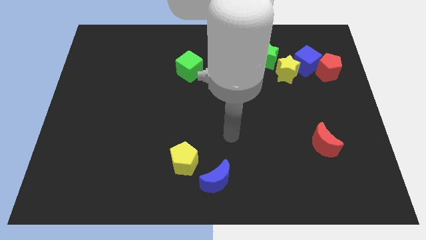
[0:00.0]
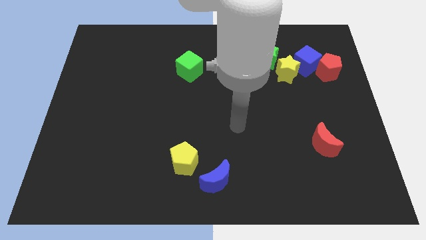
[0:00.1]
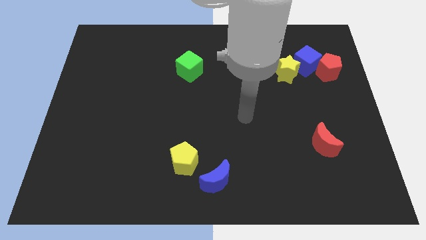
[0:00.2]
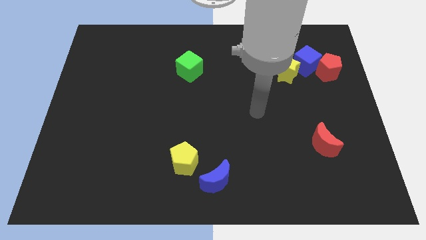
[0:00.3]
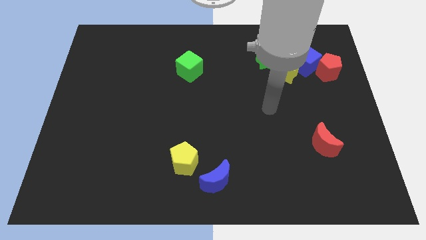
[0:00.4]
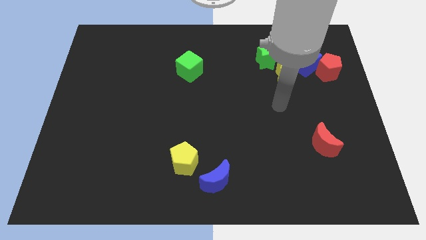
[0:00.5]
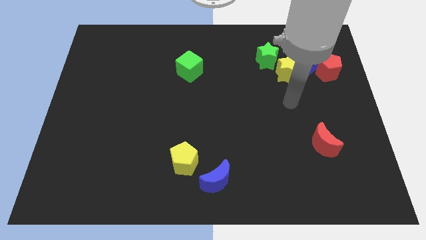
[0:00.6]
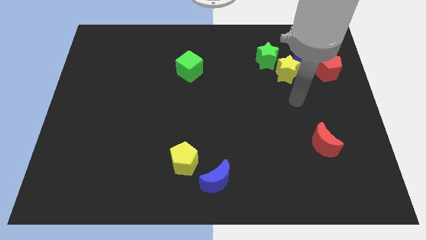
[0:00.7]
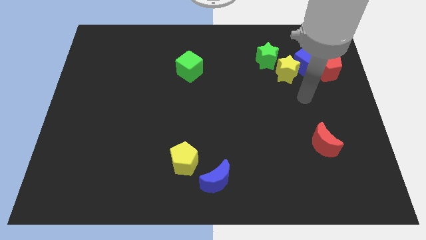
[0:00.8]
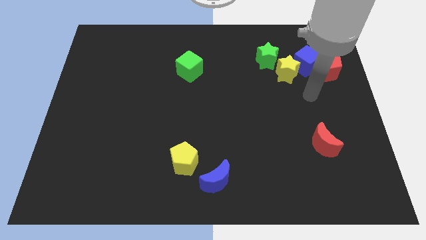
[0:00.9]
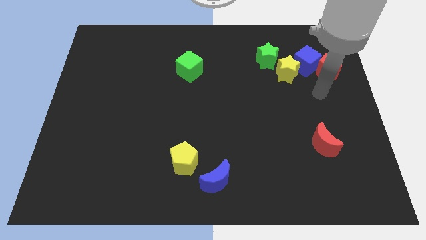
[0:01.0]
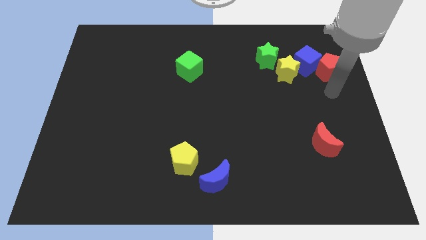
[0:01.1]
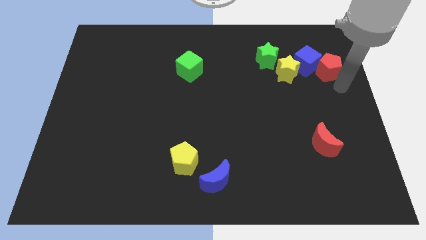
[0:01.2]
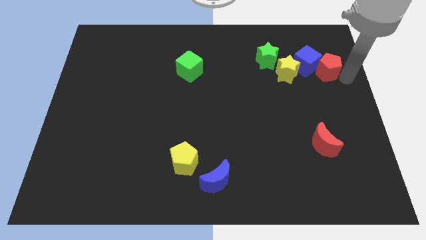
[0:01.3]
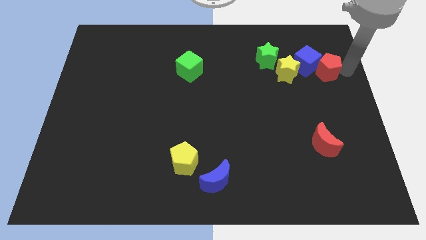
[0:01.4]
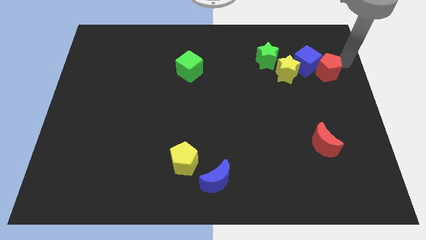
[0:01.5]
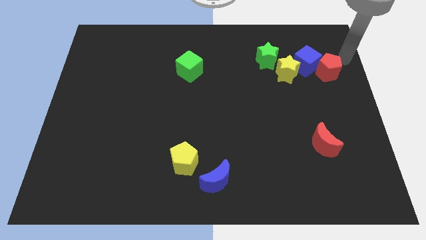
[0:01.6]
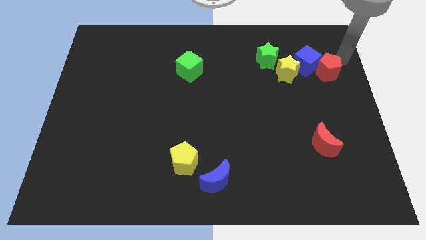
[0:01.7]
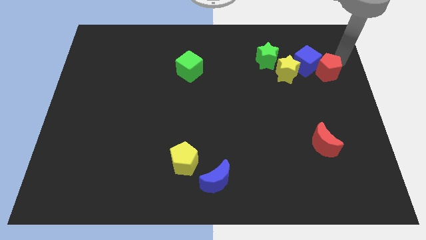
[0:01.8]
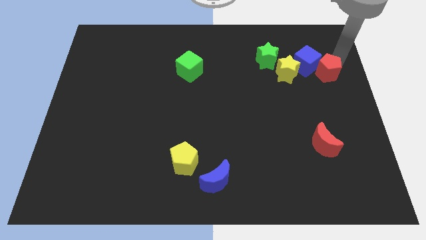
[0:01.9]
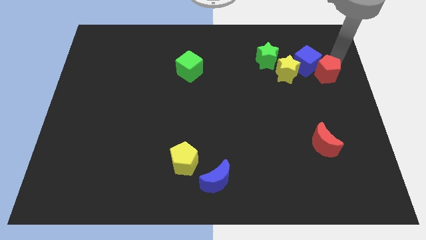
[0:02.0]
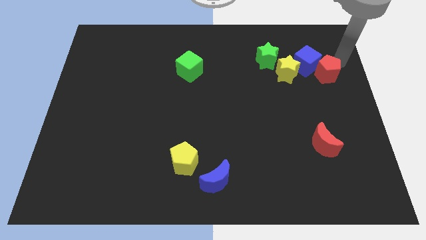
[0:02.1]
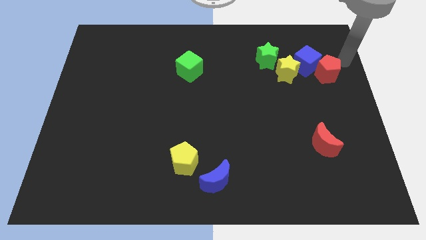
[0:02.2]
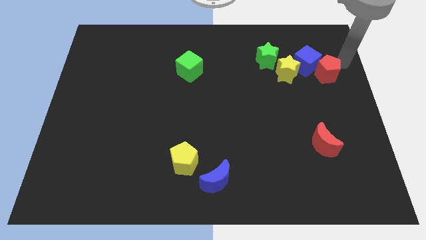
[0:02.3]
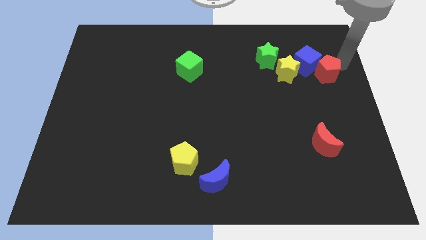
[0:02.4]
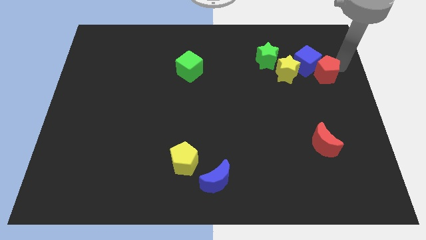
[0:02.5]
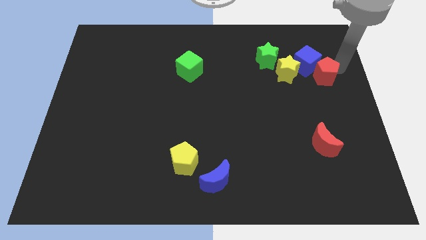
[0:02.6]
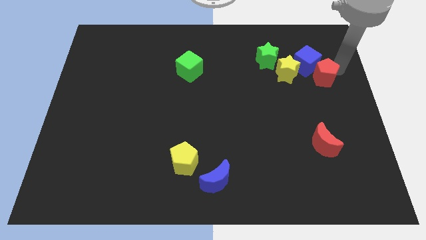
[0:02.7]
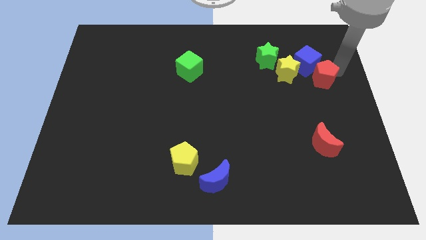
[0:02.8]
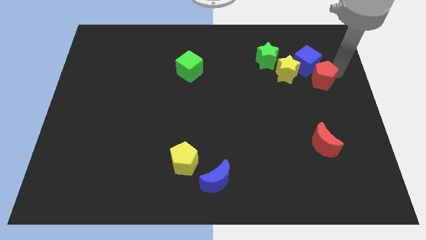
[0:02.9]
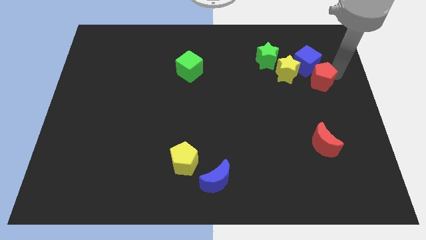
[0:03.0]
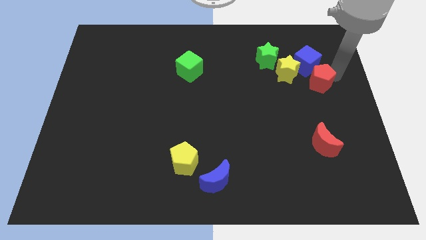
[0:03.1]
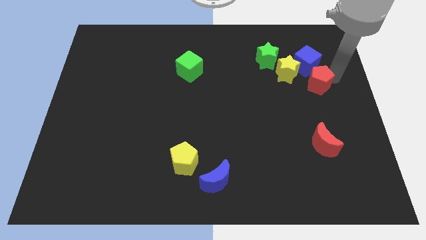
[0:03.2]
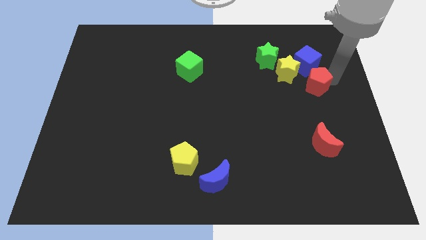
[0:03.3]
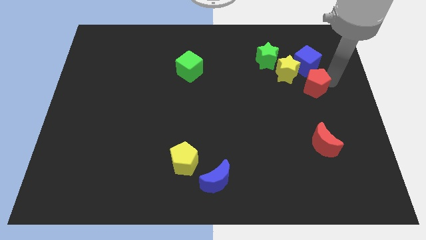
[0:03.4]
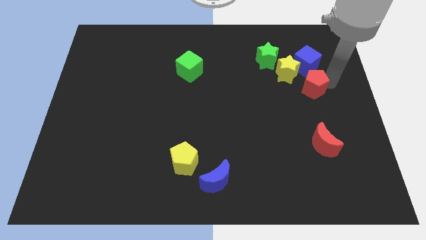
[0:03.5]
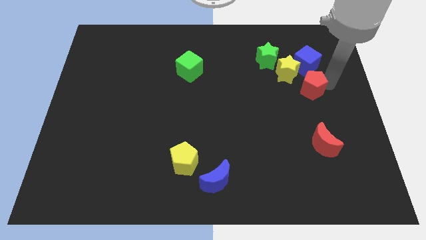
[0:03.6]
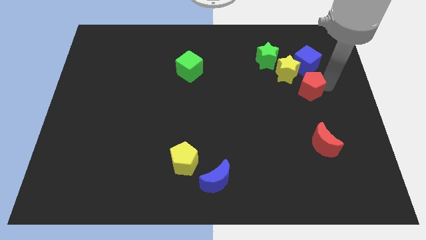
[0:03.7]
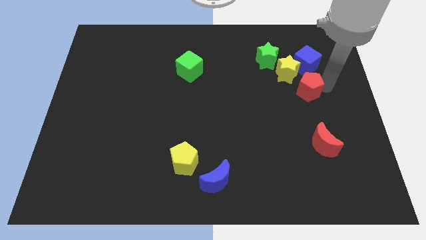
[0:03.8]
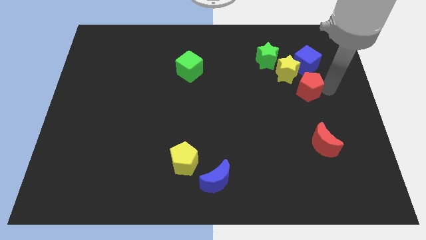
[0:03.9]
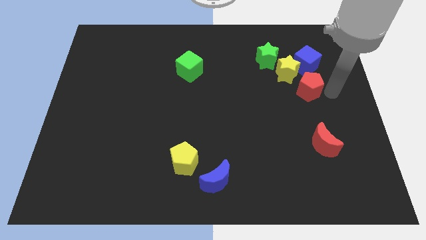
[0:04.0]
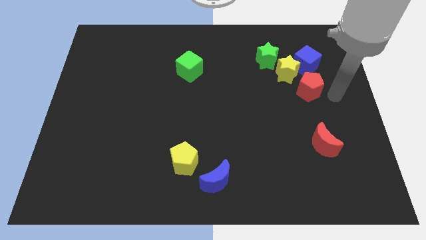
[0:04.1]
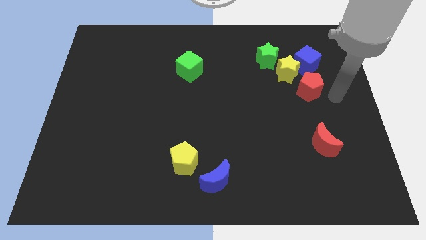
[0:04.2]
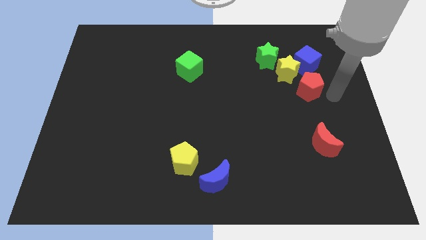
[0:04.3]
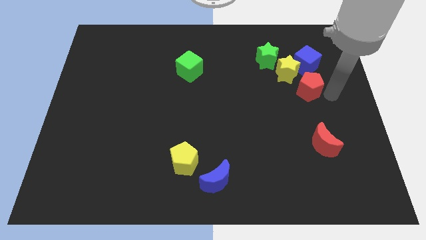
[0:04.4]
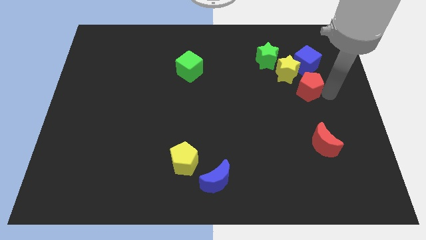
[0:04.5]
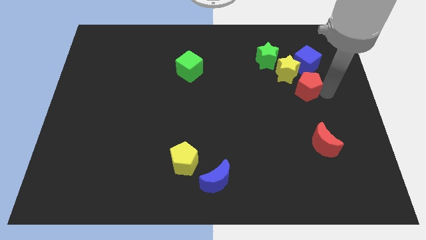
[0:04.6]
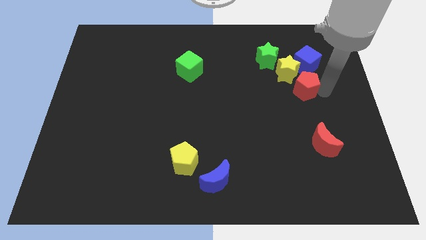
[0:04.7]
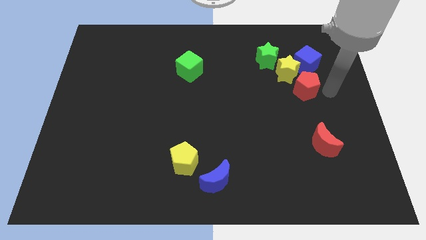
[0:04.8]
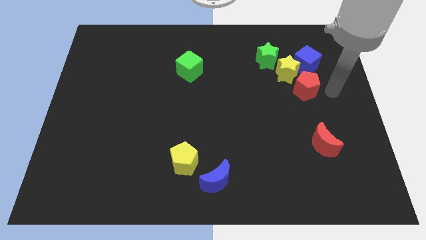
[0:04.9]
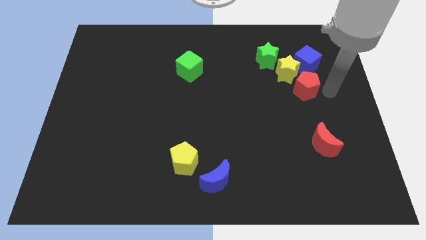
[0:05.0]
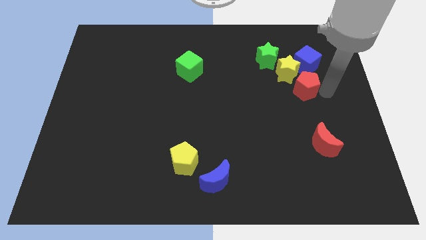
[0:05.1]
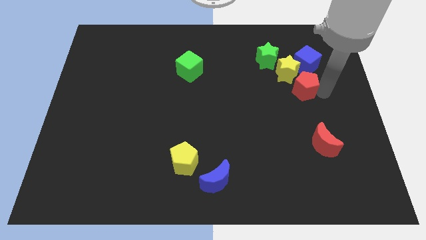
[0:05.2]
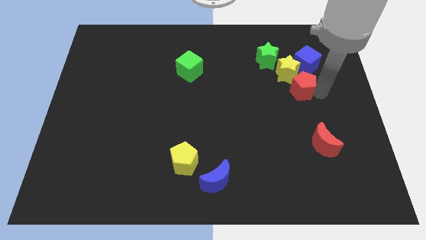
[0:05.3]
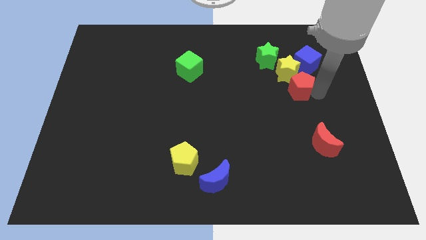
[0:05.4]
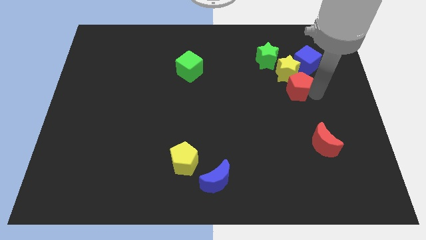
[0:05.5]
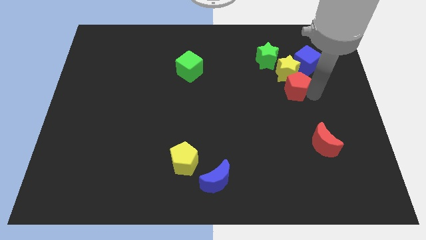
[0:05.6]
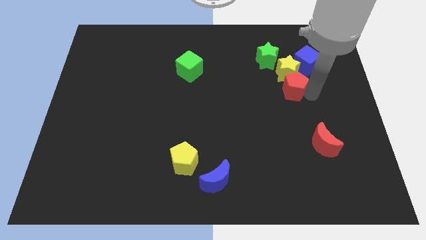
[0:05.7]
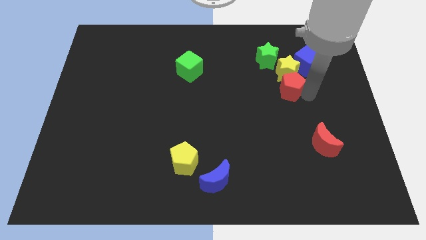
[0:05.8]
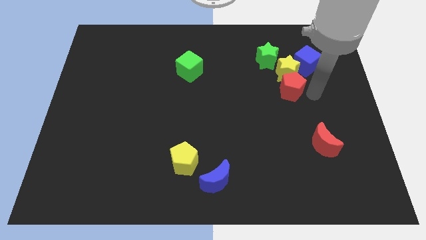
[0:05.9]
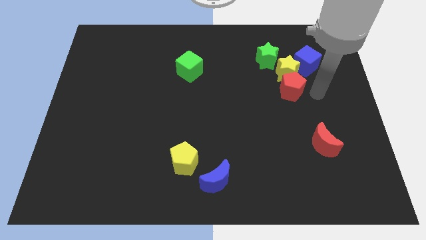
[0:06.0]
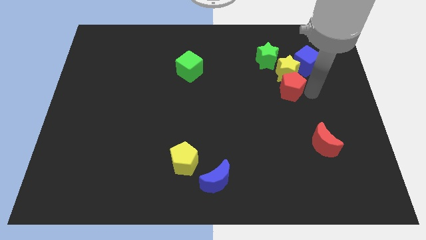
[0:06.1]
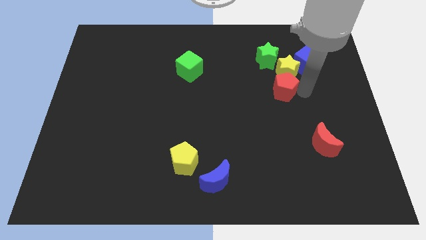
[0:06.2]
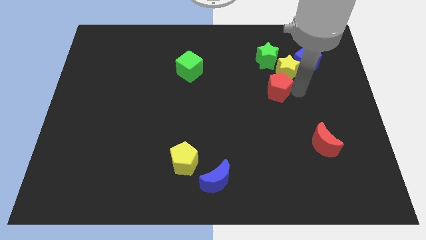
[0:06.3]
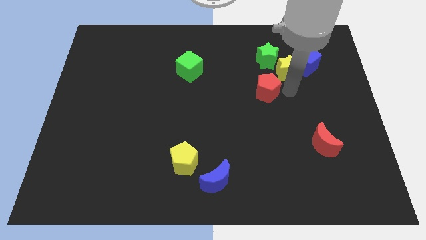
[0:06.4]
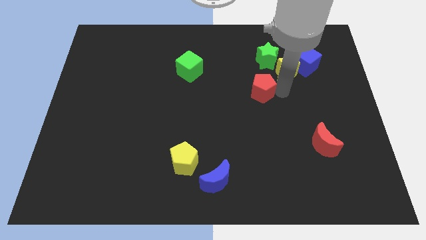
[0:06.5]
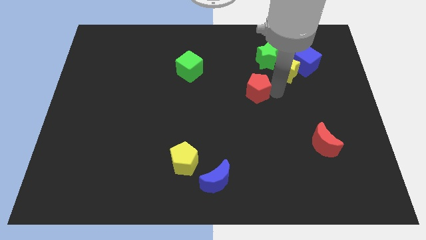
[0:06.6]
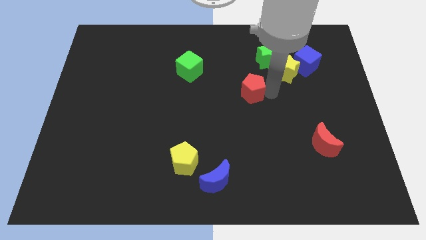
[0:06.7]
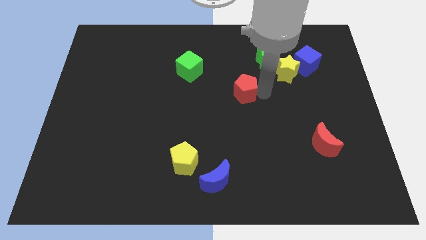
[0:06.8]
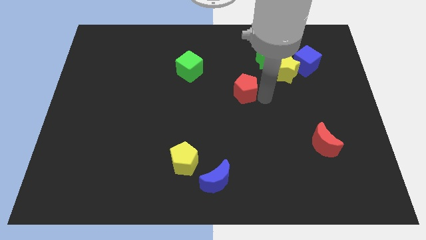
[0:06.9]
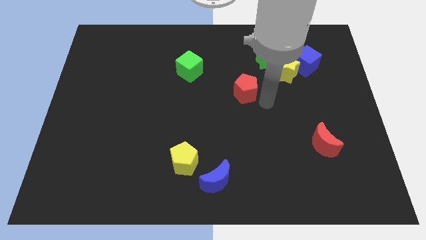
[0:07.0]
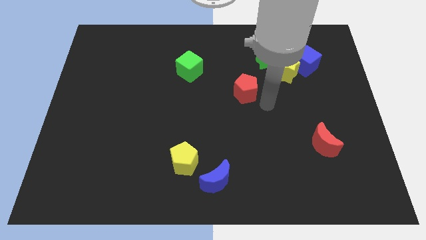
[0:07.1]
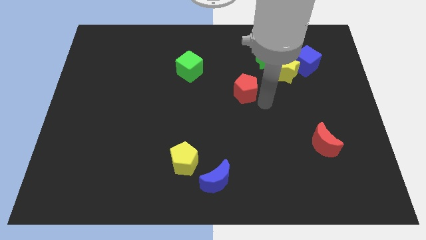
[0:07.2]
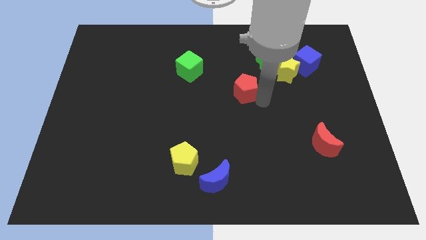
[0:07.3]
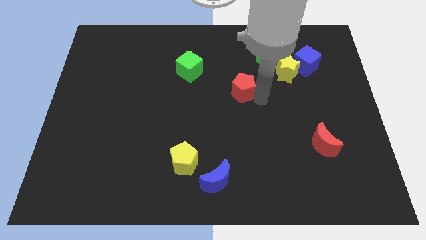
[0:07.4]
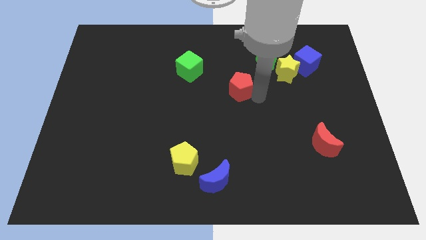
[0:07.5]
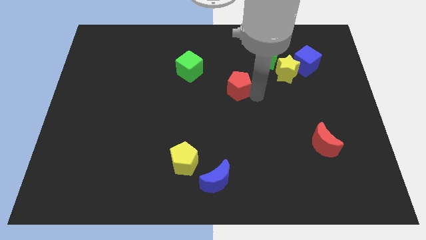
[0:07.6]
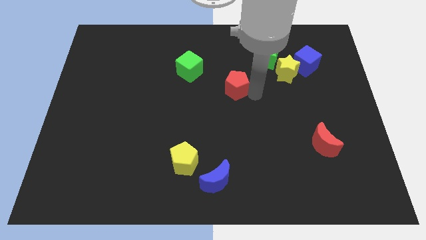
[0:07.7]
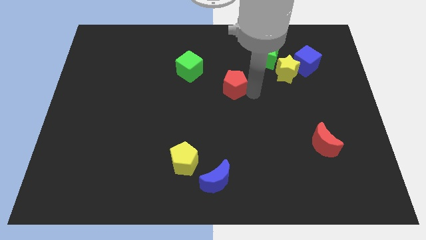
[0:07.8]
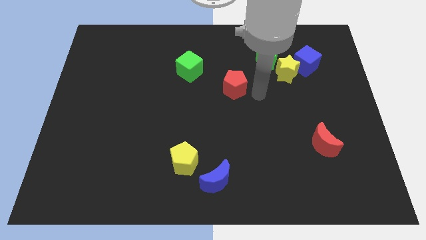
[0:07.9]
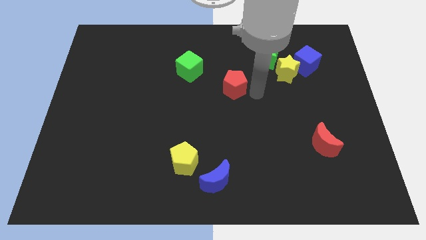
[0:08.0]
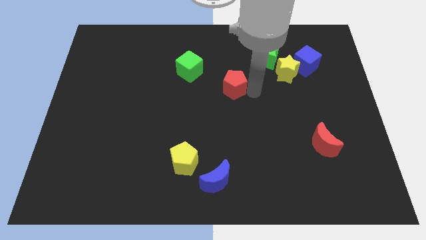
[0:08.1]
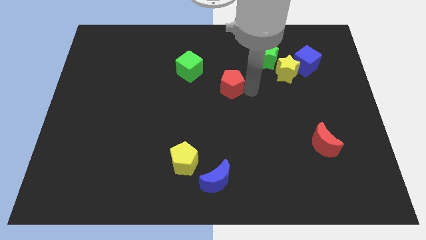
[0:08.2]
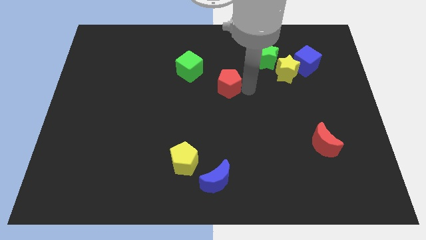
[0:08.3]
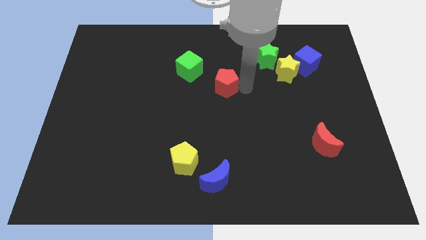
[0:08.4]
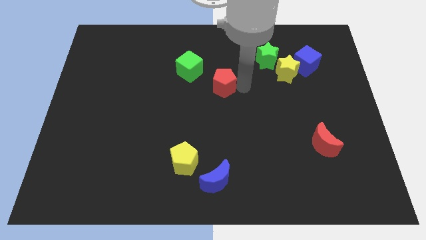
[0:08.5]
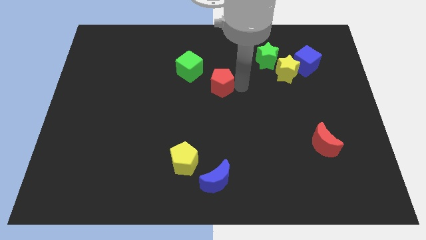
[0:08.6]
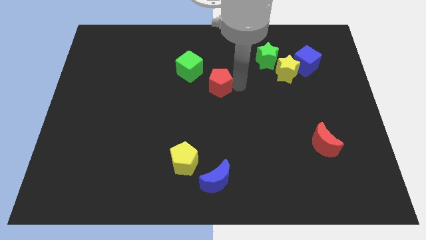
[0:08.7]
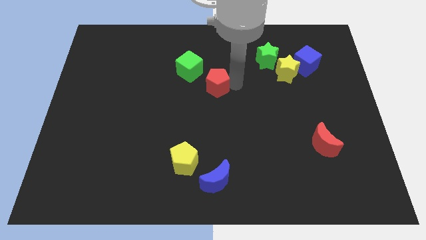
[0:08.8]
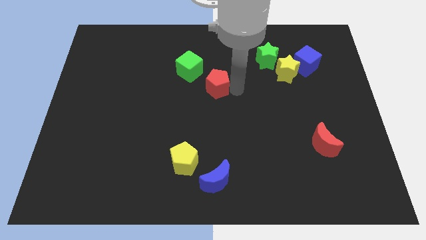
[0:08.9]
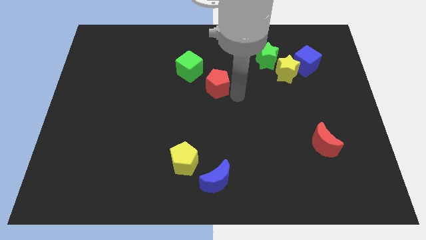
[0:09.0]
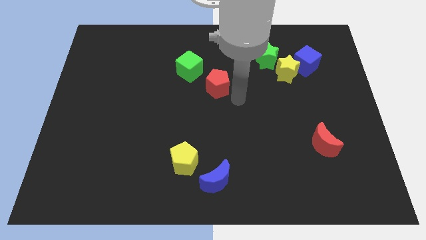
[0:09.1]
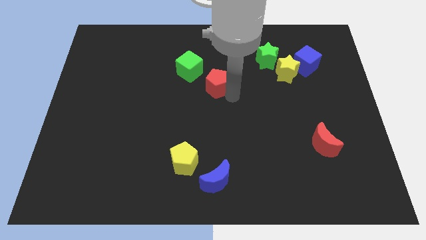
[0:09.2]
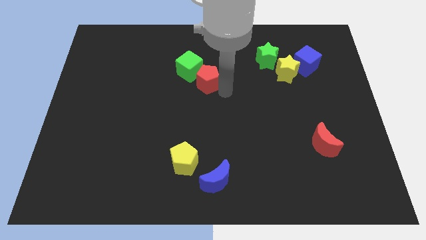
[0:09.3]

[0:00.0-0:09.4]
push the red pentagon towards the green cube
